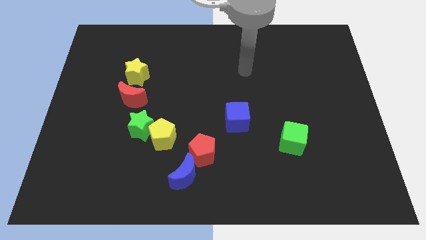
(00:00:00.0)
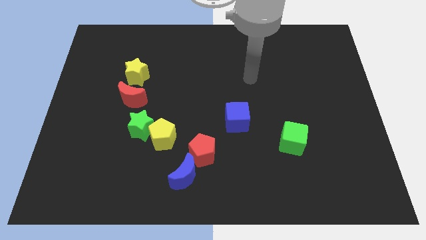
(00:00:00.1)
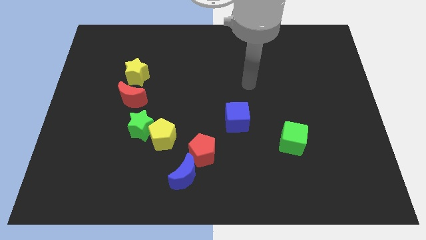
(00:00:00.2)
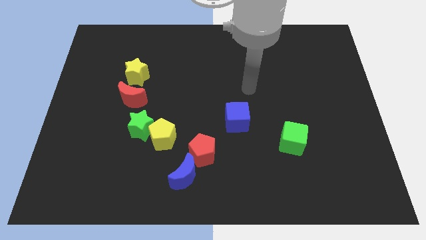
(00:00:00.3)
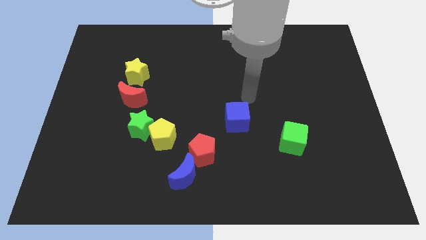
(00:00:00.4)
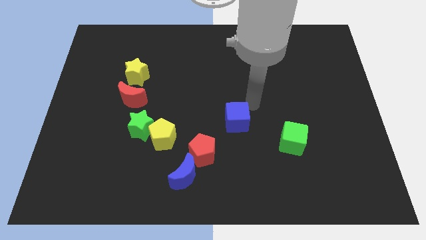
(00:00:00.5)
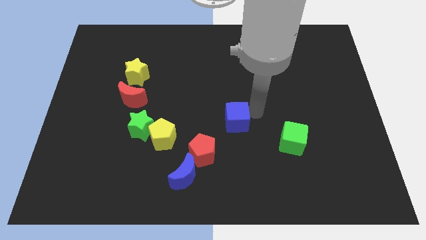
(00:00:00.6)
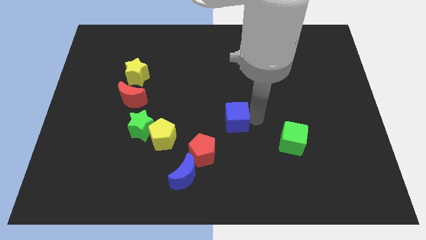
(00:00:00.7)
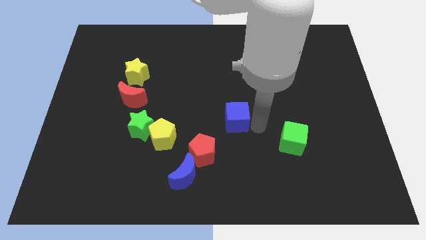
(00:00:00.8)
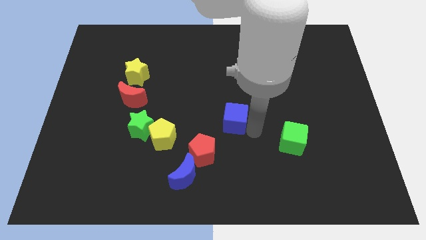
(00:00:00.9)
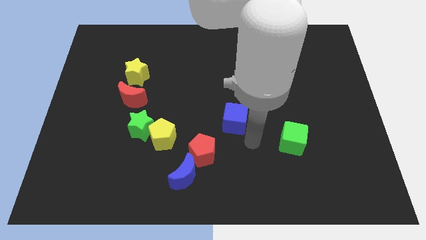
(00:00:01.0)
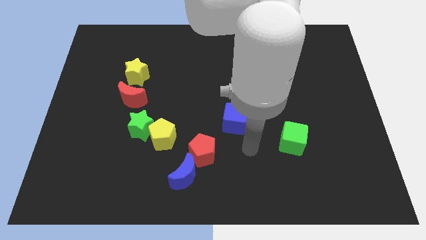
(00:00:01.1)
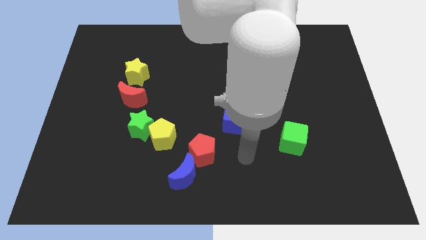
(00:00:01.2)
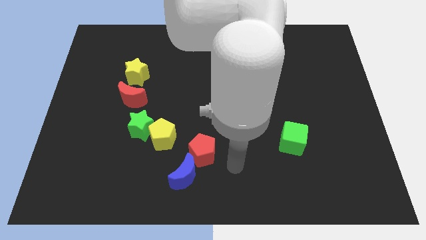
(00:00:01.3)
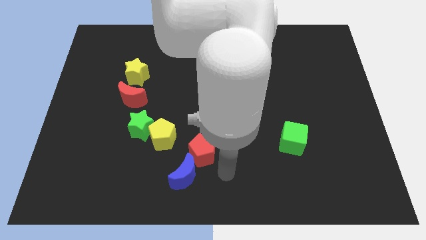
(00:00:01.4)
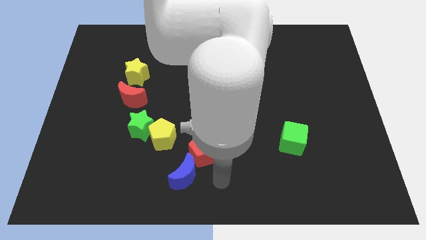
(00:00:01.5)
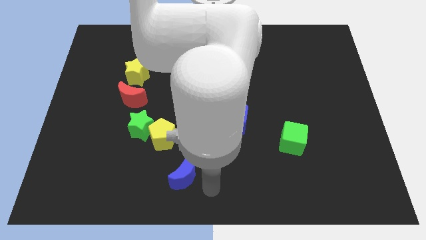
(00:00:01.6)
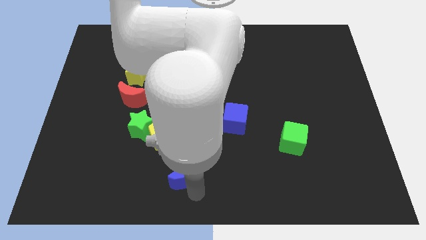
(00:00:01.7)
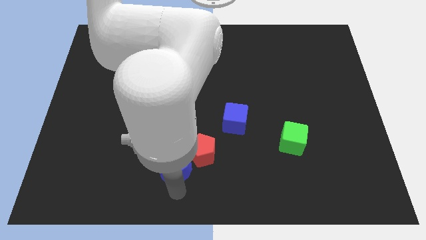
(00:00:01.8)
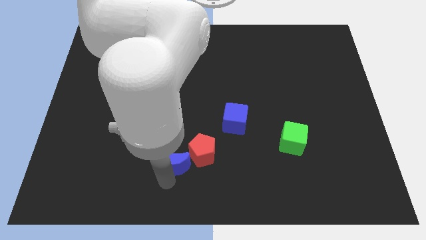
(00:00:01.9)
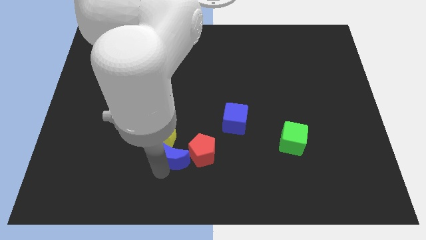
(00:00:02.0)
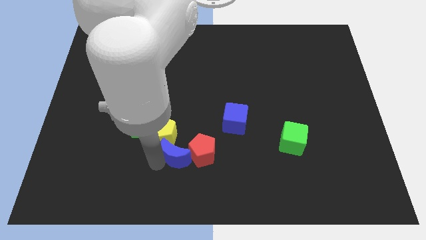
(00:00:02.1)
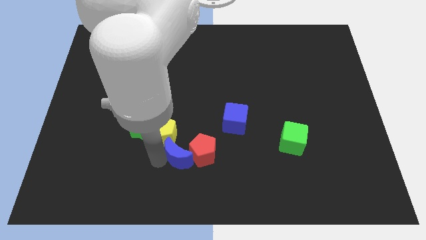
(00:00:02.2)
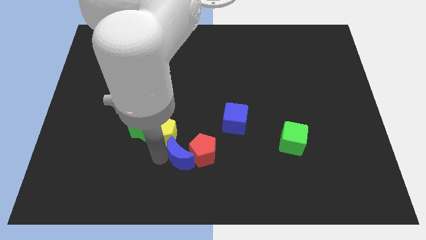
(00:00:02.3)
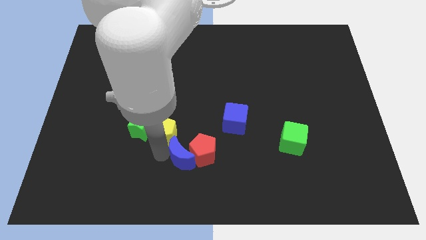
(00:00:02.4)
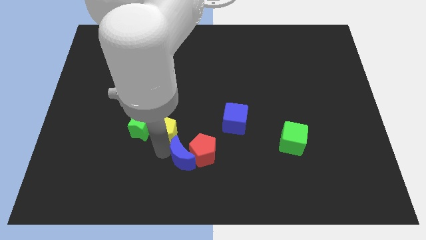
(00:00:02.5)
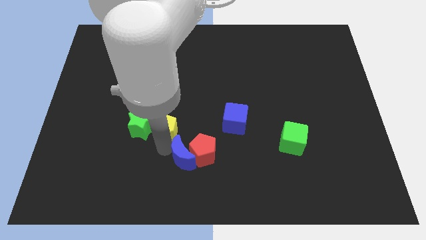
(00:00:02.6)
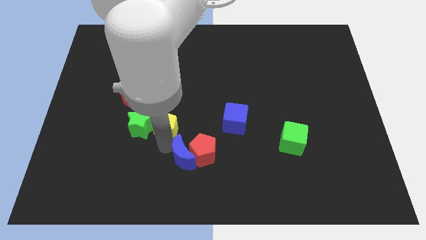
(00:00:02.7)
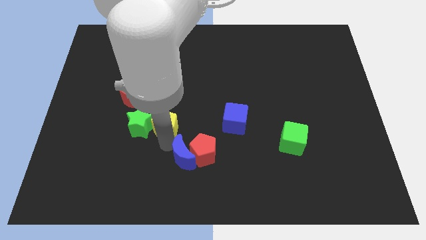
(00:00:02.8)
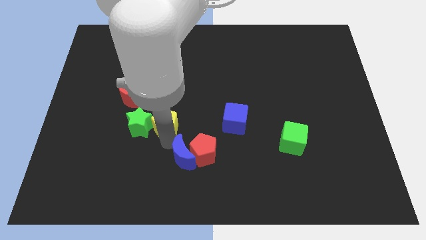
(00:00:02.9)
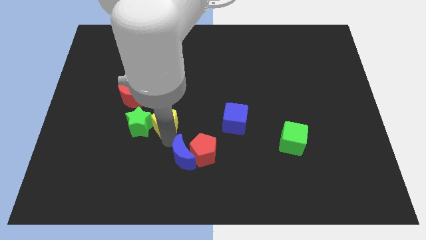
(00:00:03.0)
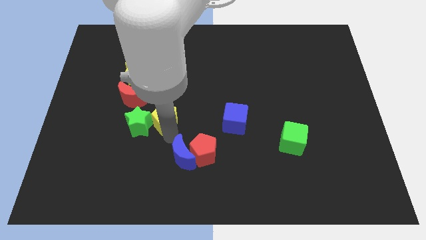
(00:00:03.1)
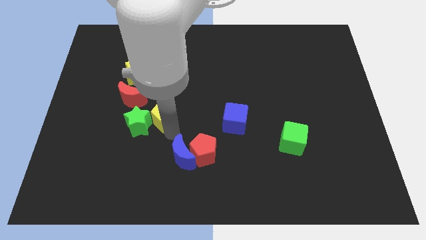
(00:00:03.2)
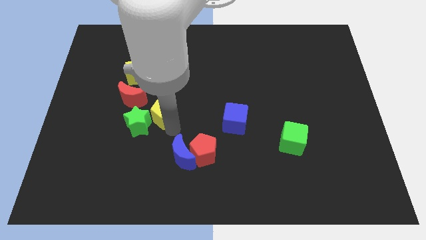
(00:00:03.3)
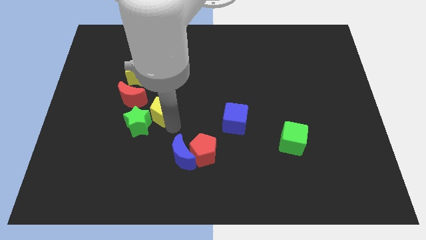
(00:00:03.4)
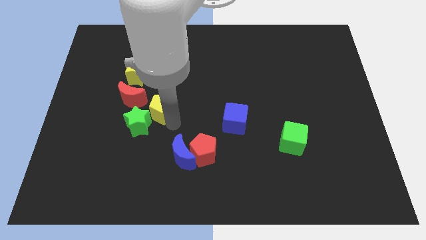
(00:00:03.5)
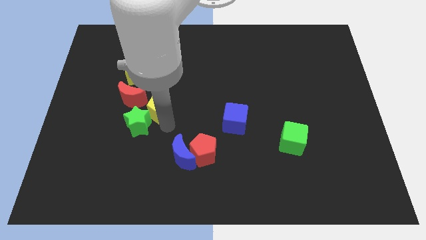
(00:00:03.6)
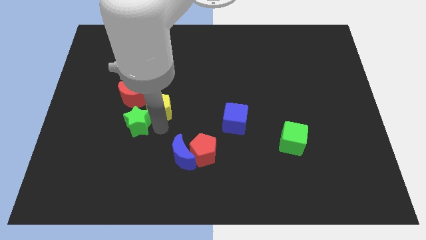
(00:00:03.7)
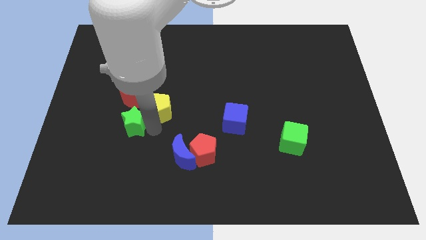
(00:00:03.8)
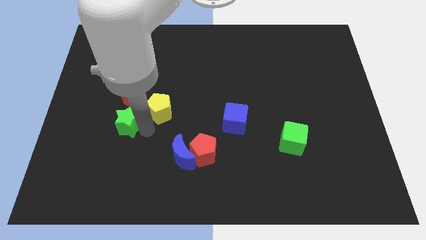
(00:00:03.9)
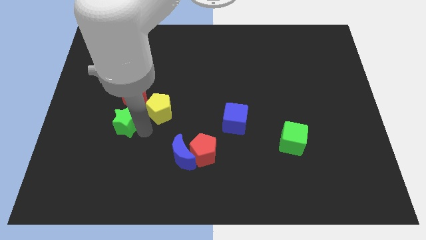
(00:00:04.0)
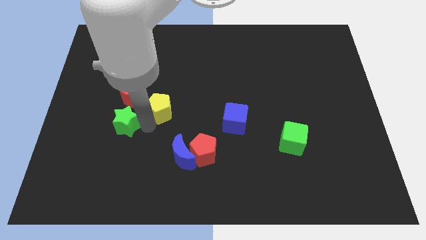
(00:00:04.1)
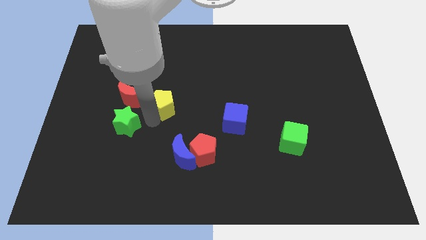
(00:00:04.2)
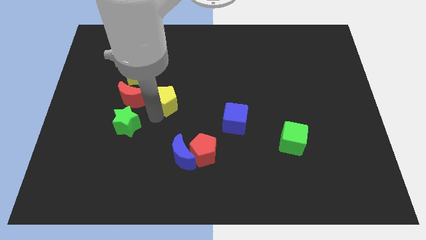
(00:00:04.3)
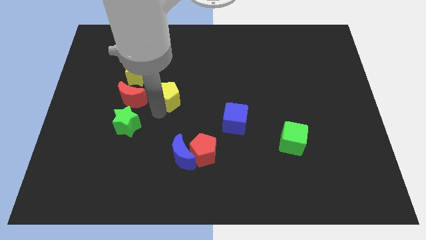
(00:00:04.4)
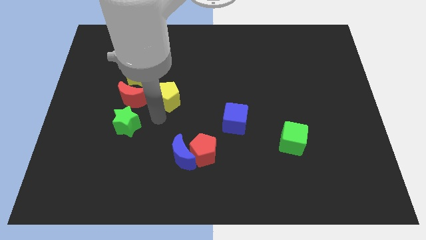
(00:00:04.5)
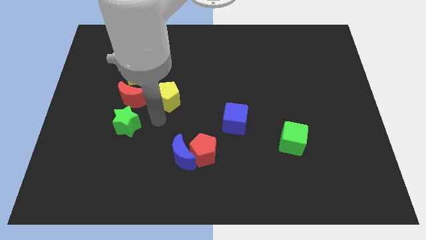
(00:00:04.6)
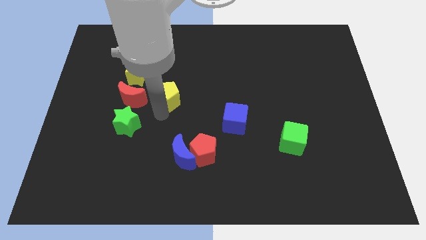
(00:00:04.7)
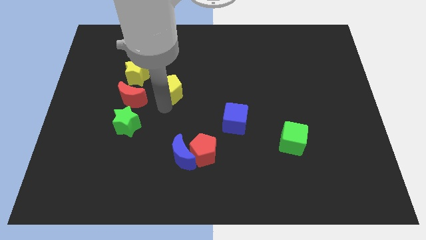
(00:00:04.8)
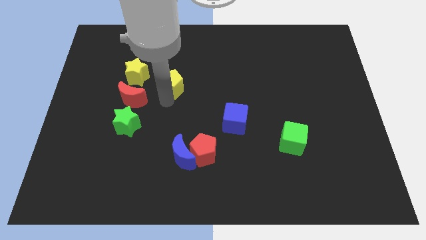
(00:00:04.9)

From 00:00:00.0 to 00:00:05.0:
slide the yellow pentagon to the right side of the yellow star

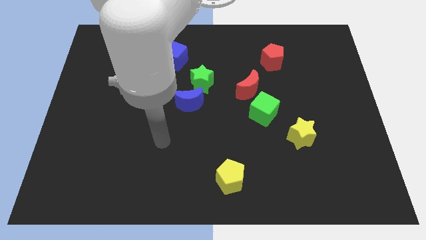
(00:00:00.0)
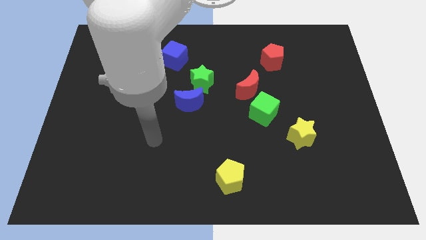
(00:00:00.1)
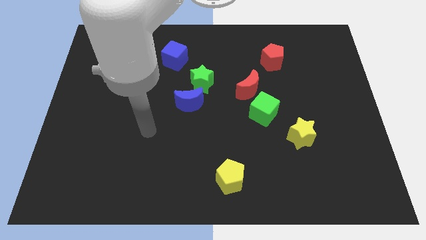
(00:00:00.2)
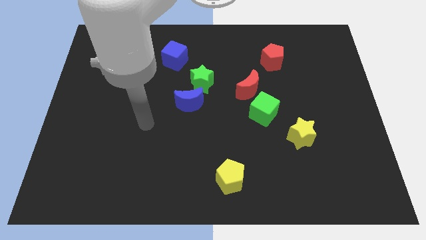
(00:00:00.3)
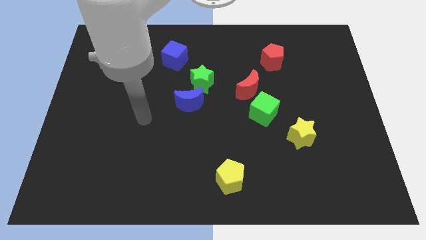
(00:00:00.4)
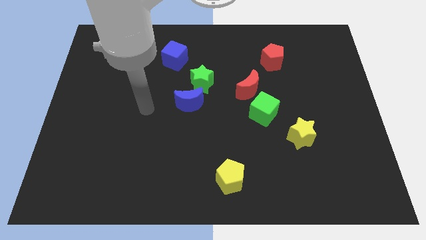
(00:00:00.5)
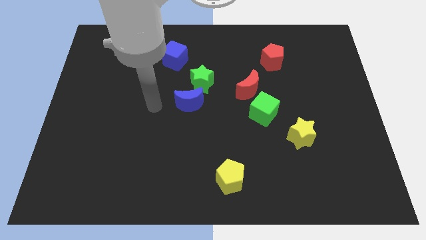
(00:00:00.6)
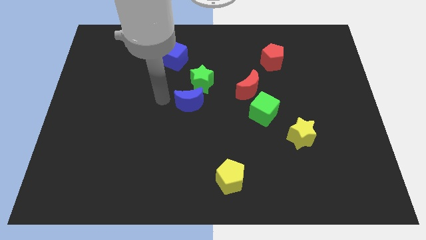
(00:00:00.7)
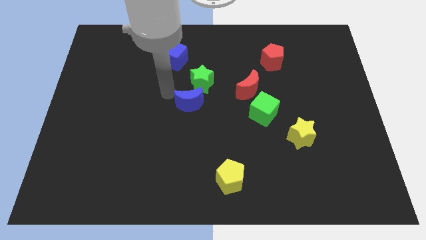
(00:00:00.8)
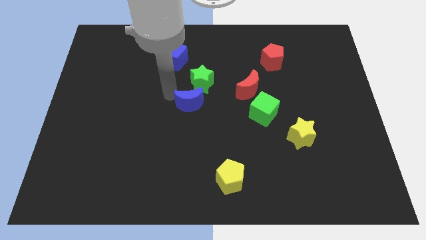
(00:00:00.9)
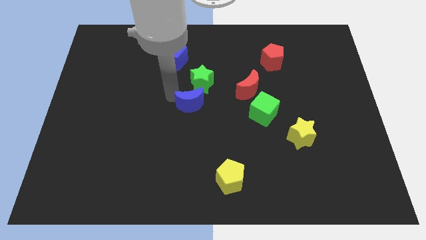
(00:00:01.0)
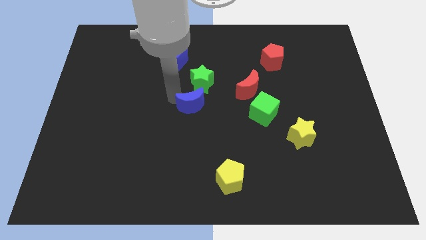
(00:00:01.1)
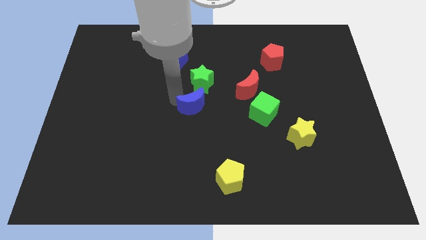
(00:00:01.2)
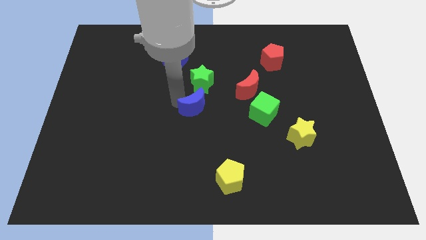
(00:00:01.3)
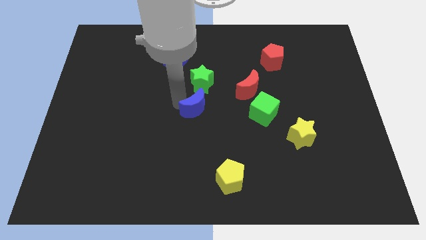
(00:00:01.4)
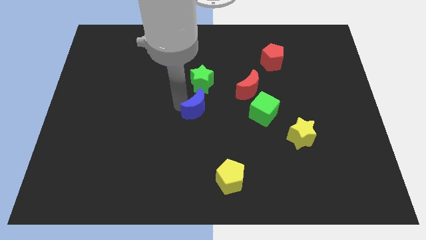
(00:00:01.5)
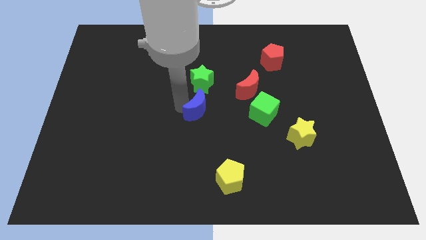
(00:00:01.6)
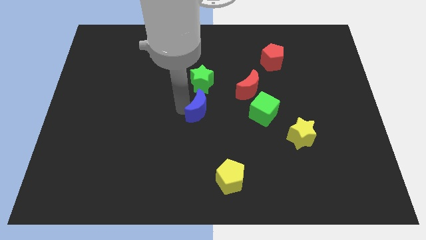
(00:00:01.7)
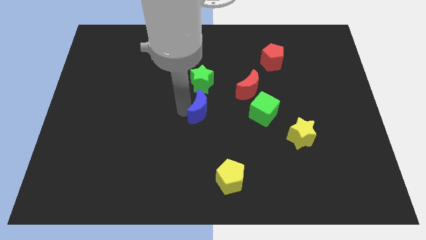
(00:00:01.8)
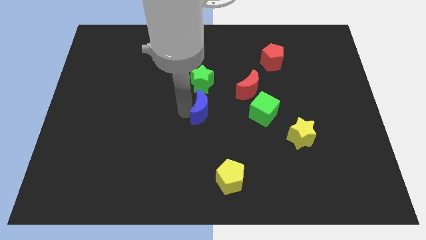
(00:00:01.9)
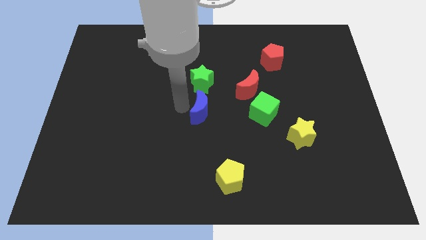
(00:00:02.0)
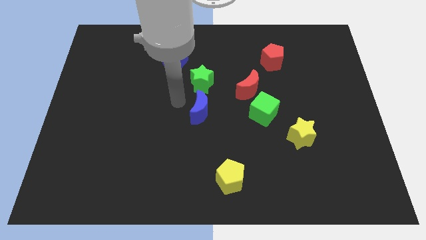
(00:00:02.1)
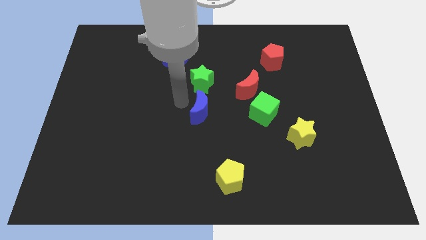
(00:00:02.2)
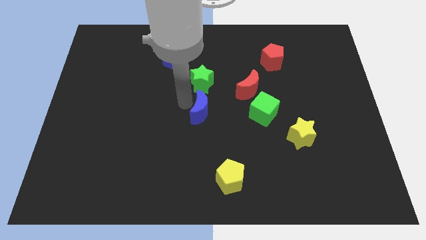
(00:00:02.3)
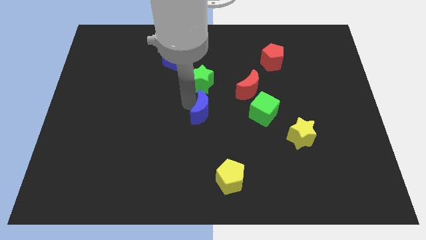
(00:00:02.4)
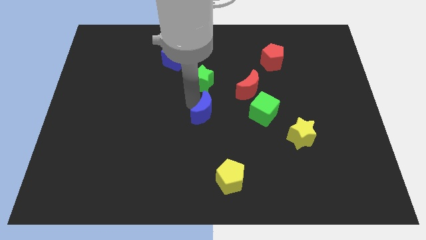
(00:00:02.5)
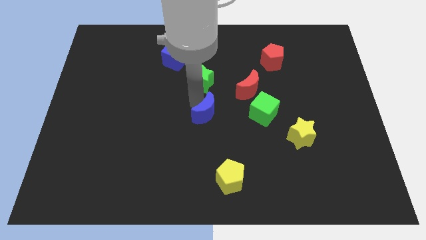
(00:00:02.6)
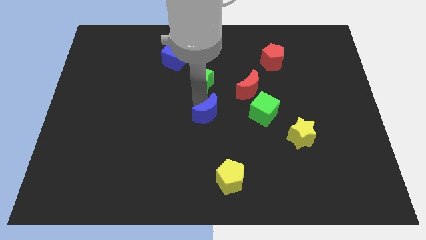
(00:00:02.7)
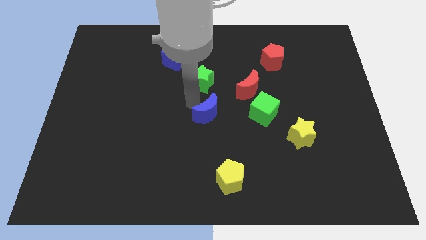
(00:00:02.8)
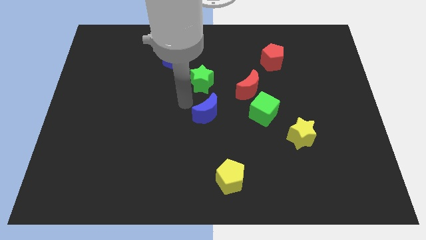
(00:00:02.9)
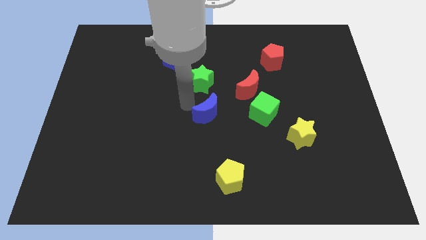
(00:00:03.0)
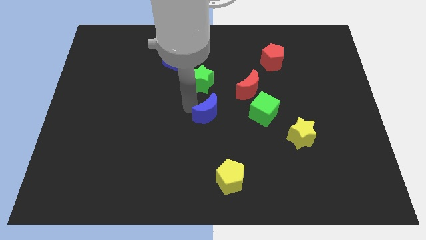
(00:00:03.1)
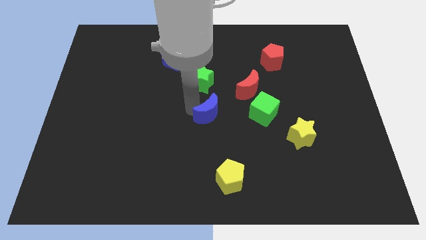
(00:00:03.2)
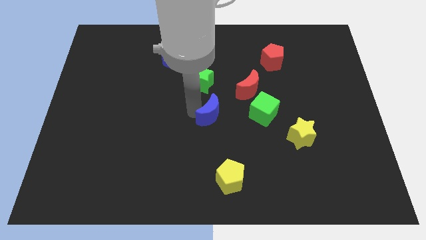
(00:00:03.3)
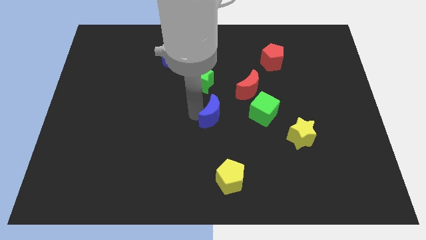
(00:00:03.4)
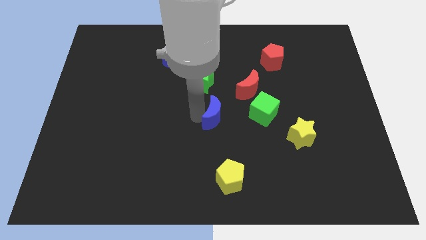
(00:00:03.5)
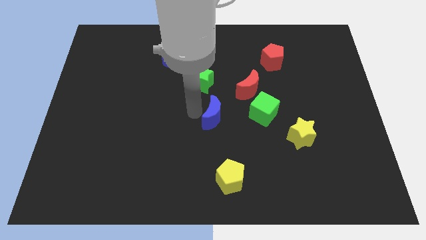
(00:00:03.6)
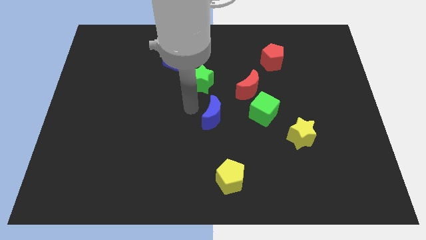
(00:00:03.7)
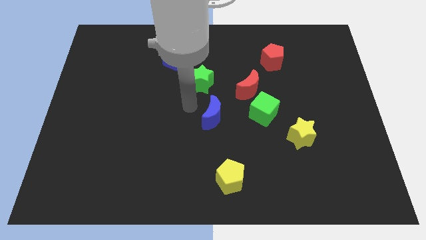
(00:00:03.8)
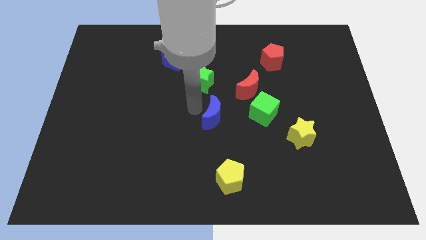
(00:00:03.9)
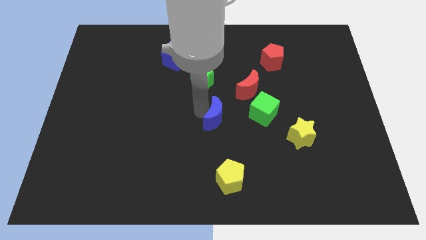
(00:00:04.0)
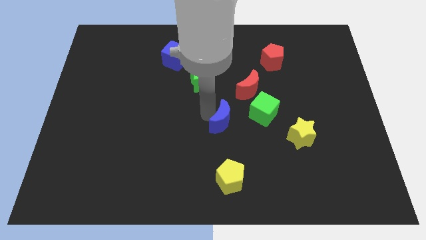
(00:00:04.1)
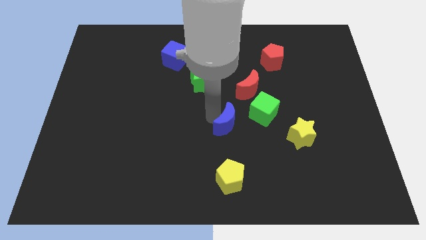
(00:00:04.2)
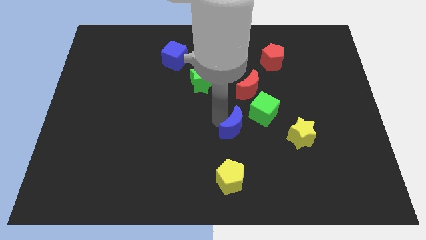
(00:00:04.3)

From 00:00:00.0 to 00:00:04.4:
move the blue moon left of the yellow star
